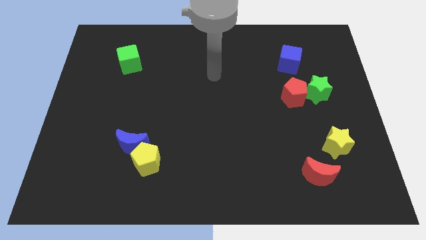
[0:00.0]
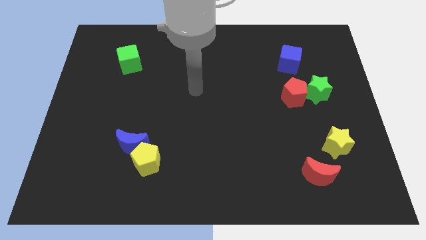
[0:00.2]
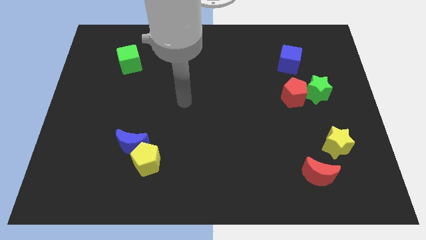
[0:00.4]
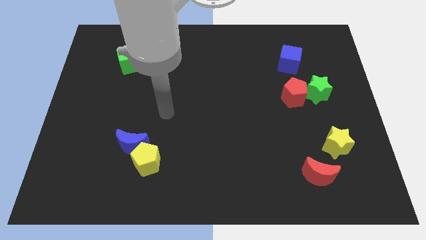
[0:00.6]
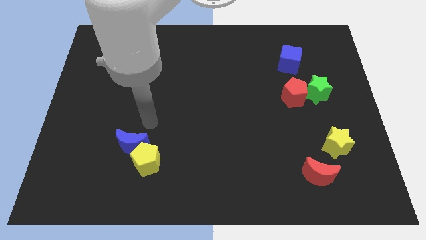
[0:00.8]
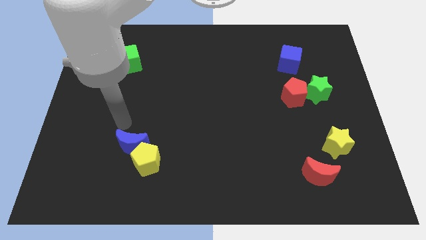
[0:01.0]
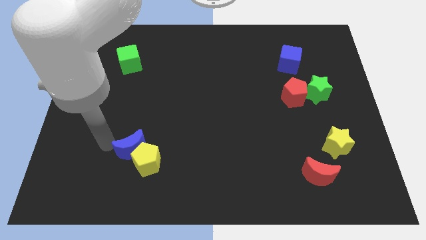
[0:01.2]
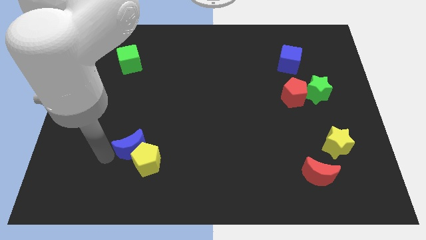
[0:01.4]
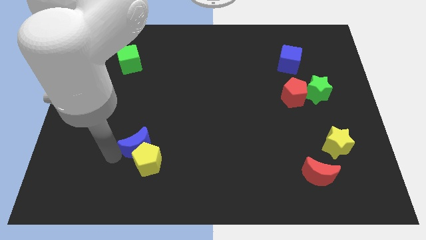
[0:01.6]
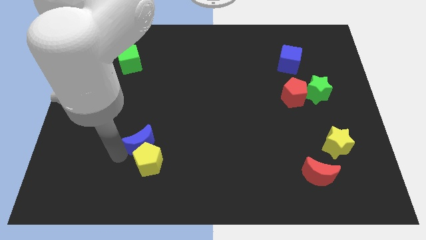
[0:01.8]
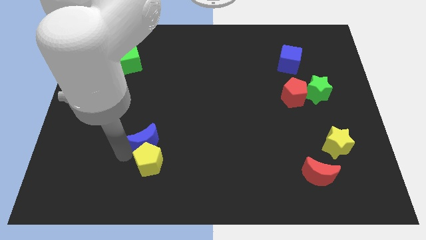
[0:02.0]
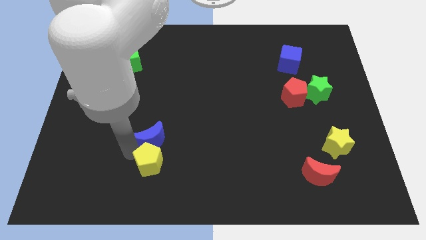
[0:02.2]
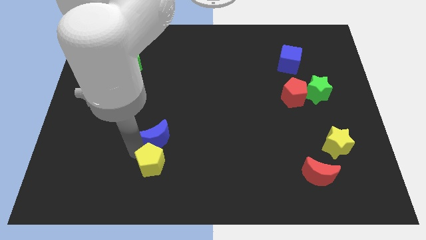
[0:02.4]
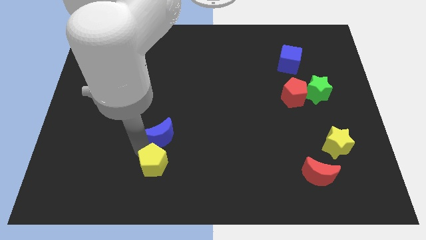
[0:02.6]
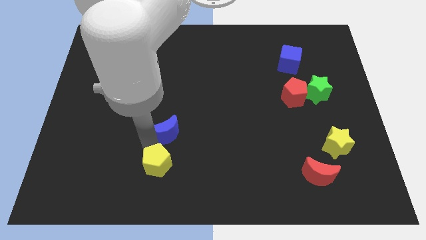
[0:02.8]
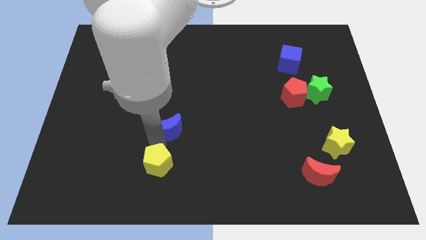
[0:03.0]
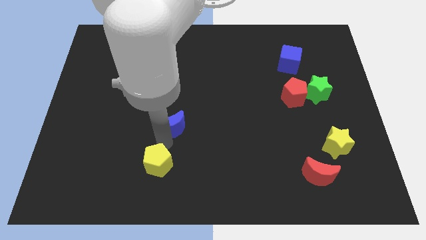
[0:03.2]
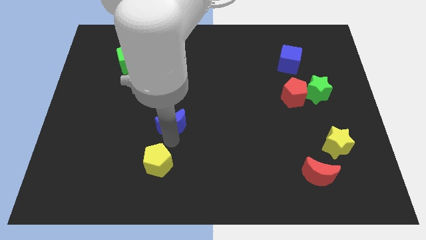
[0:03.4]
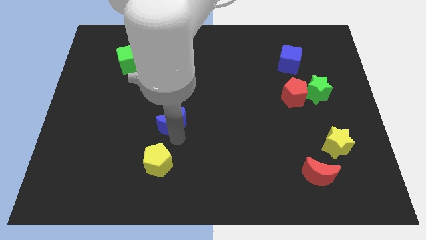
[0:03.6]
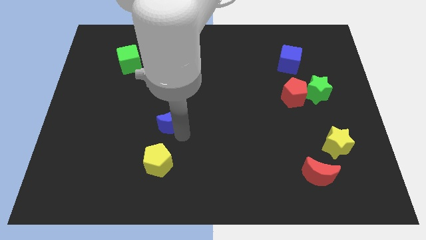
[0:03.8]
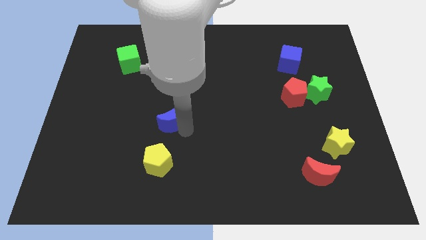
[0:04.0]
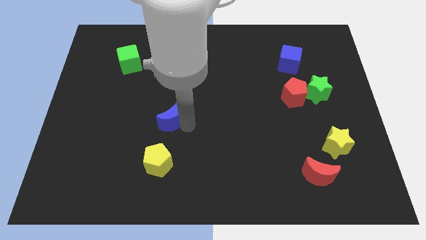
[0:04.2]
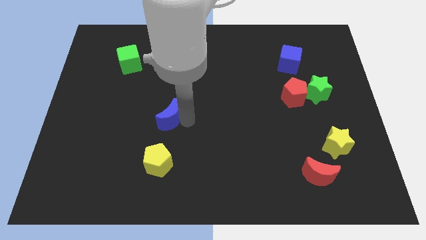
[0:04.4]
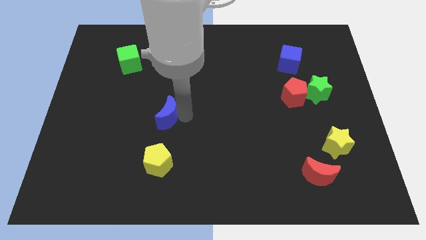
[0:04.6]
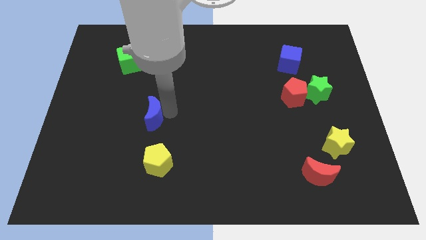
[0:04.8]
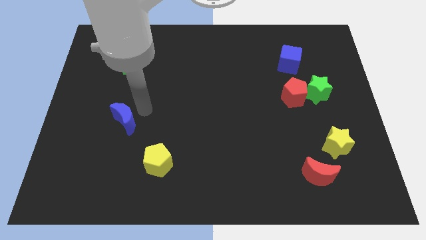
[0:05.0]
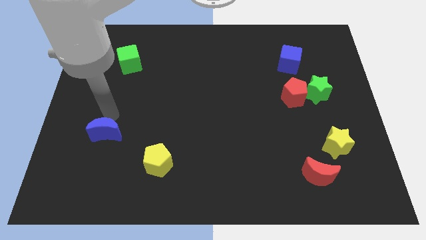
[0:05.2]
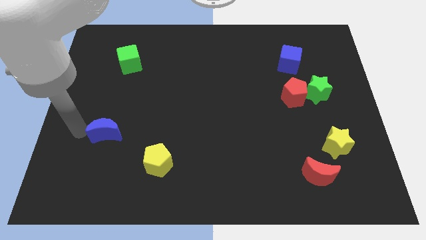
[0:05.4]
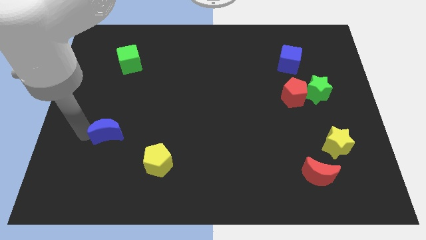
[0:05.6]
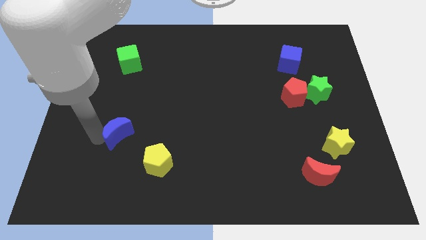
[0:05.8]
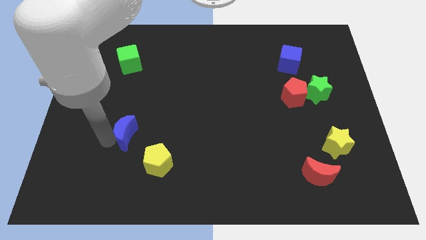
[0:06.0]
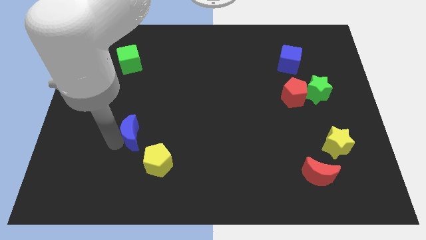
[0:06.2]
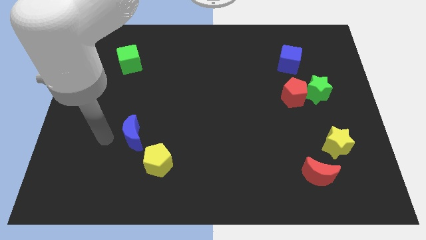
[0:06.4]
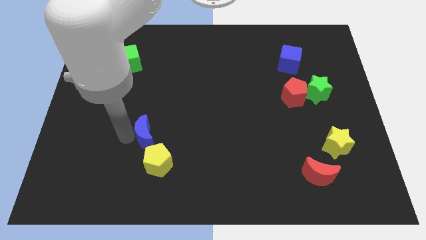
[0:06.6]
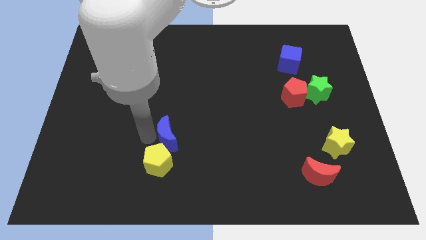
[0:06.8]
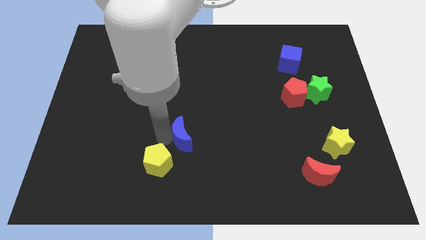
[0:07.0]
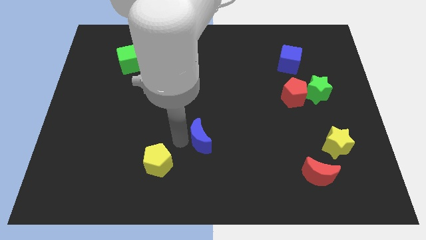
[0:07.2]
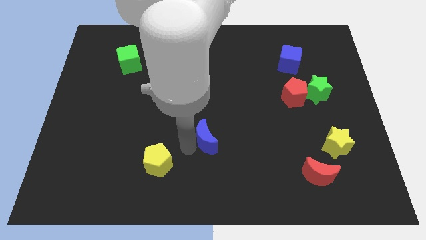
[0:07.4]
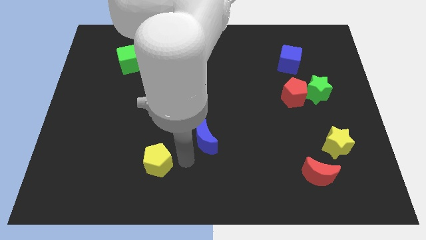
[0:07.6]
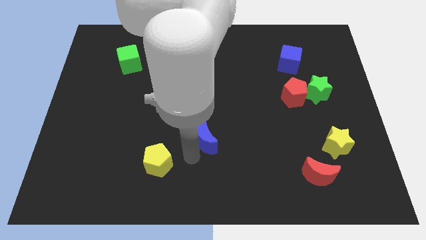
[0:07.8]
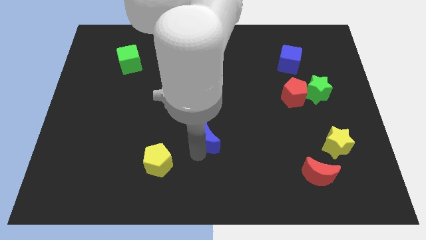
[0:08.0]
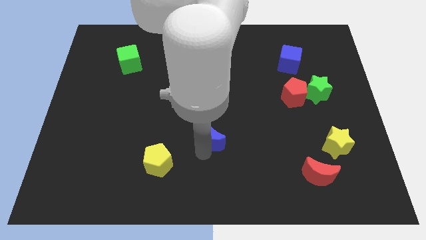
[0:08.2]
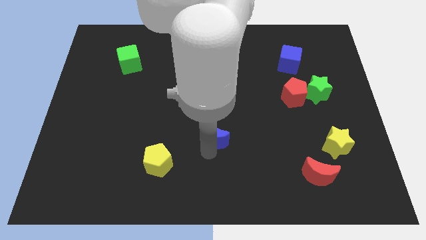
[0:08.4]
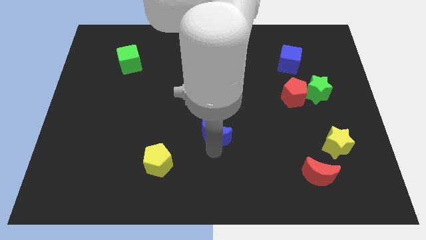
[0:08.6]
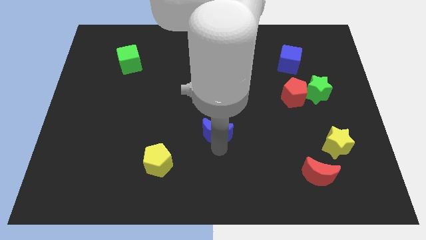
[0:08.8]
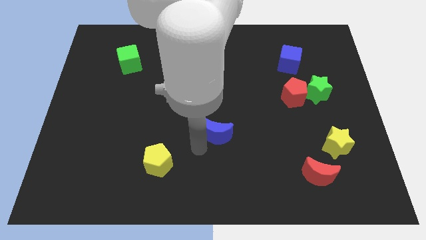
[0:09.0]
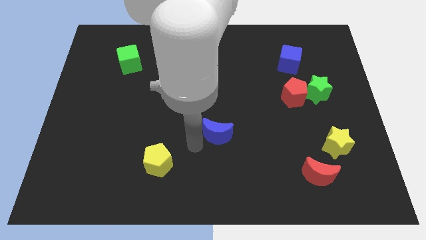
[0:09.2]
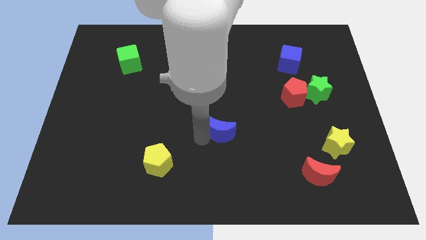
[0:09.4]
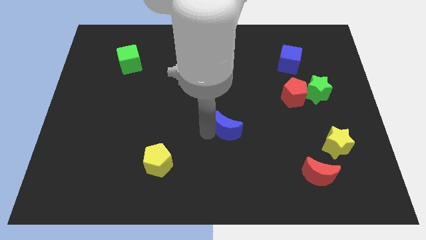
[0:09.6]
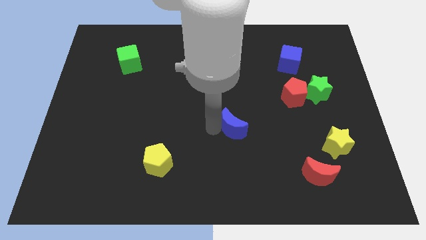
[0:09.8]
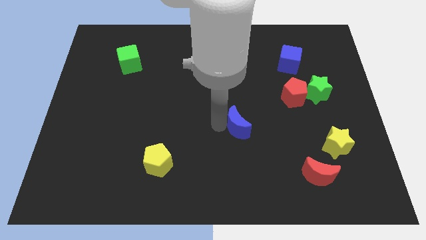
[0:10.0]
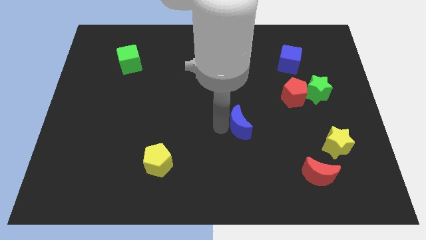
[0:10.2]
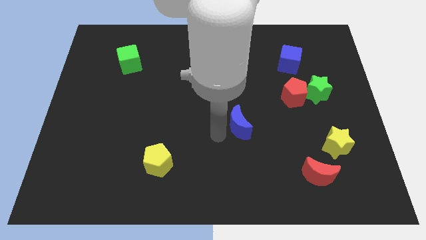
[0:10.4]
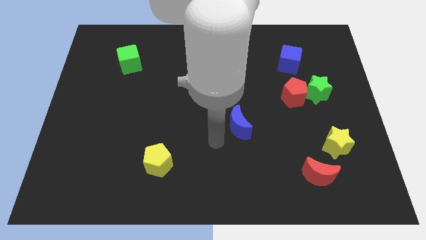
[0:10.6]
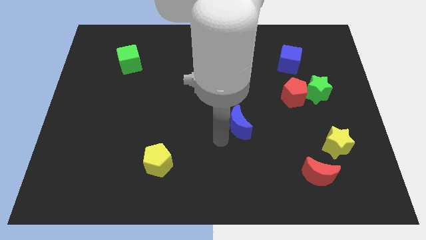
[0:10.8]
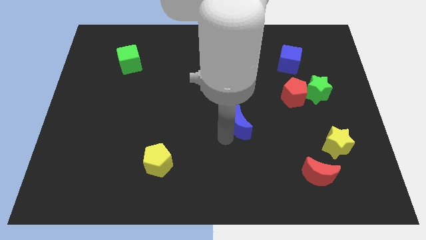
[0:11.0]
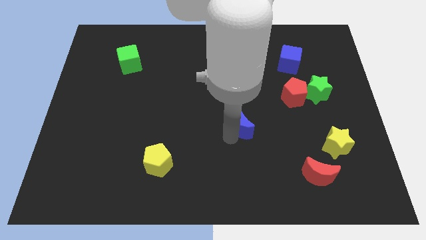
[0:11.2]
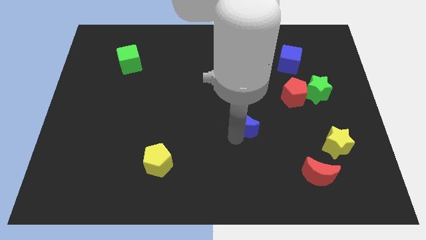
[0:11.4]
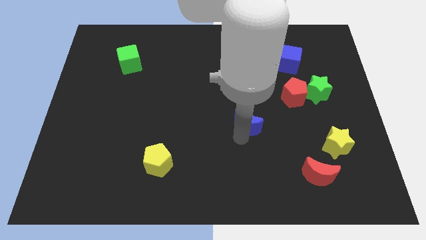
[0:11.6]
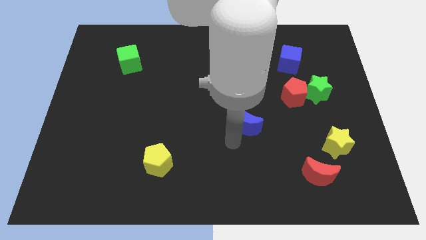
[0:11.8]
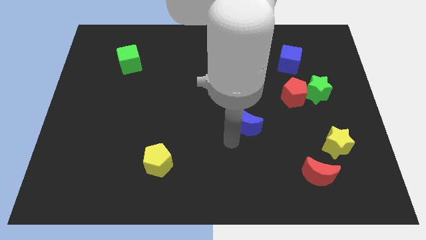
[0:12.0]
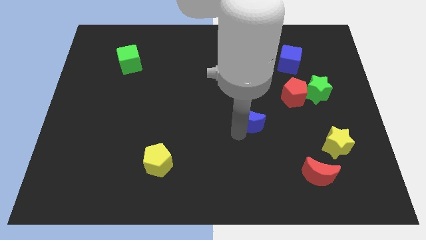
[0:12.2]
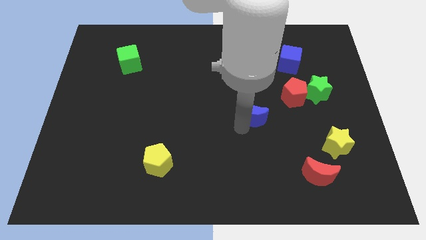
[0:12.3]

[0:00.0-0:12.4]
slide the blue moon to the bottom left side of the red pentagon

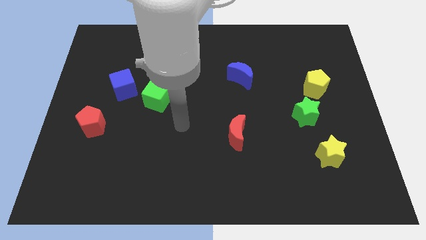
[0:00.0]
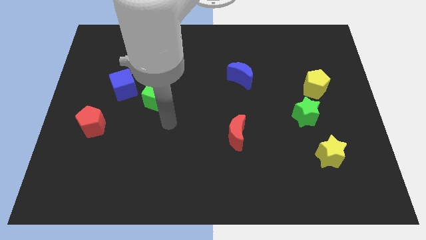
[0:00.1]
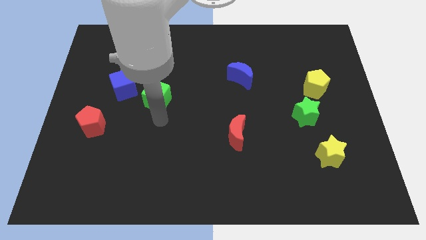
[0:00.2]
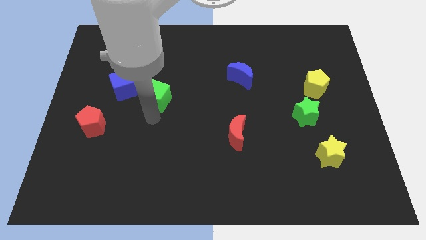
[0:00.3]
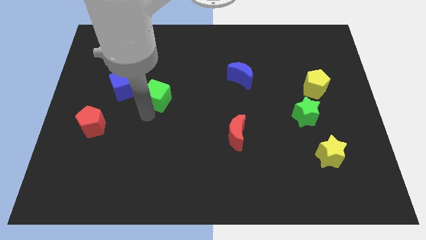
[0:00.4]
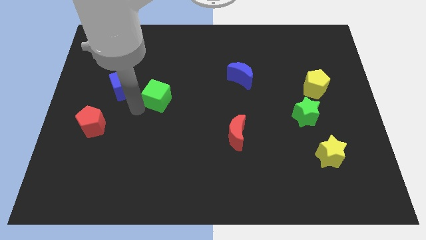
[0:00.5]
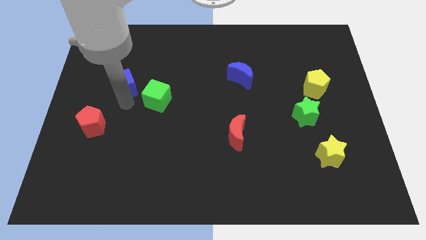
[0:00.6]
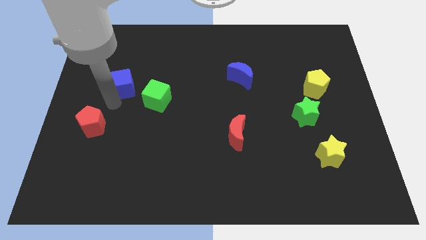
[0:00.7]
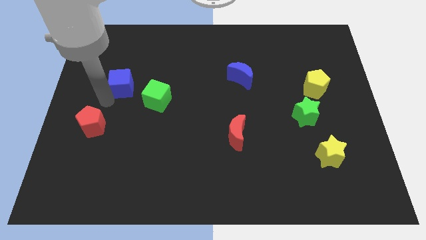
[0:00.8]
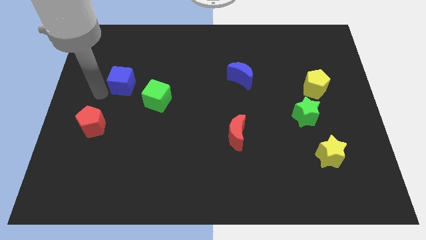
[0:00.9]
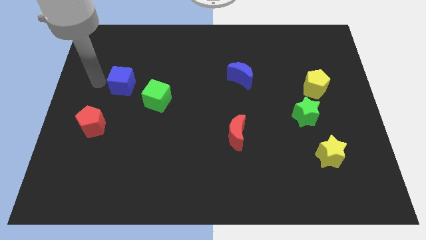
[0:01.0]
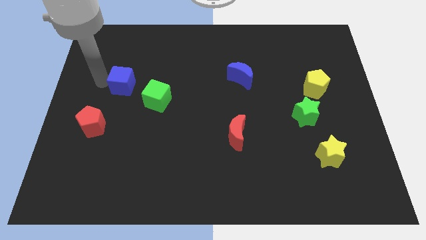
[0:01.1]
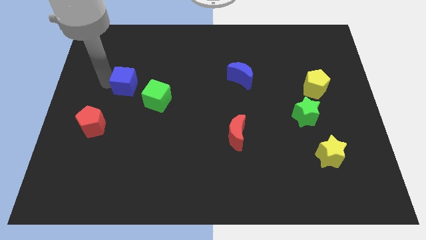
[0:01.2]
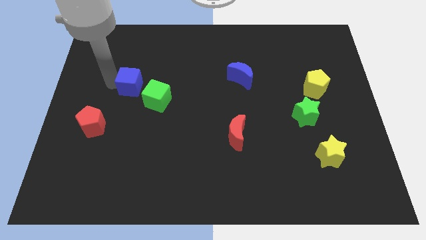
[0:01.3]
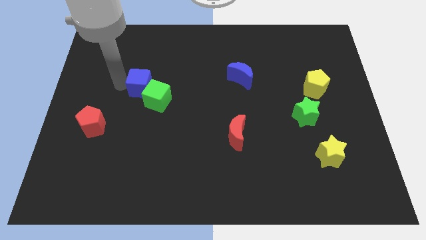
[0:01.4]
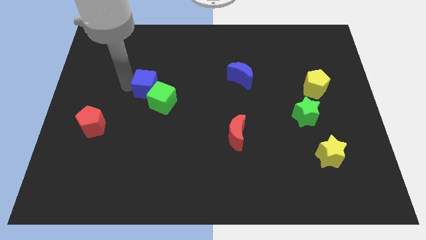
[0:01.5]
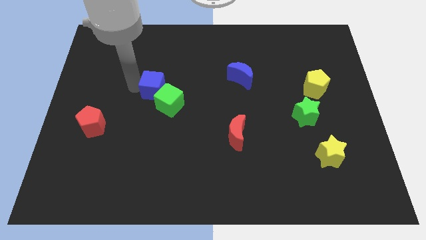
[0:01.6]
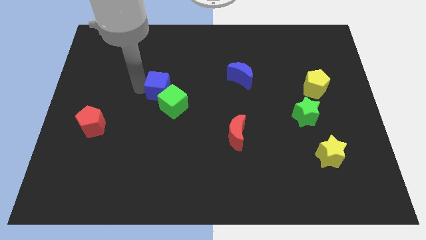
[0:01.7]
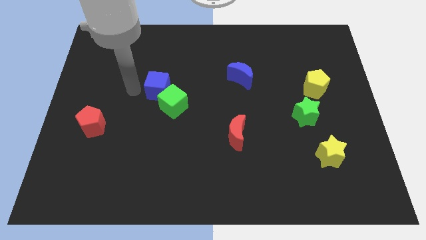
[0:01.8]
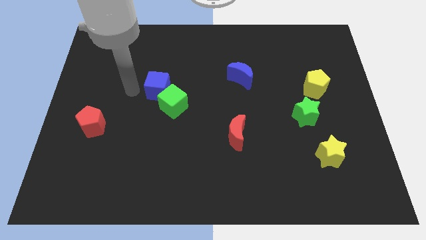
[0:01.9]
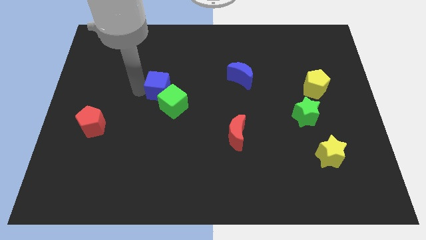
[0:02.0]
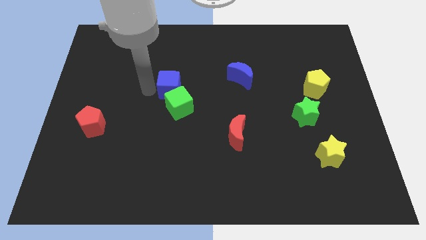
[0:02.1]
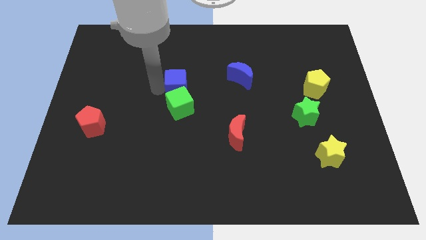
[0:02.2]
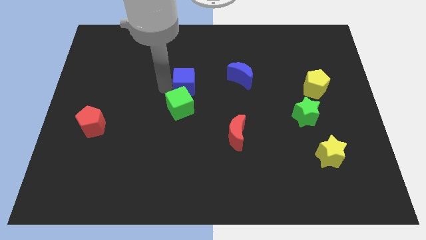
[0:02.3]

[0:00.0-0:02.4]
move the blue cube to the top right side of the green cube
